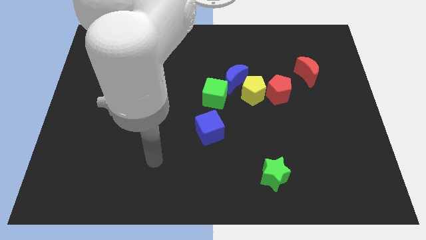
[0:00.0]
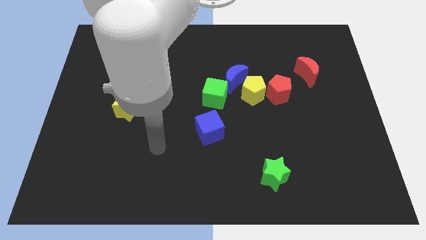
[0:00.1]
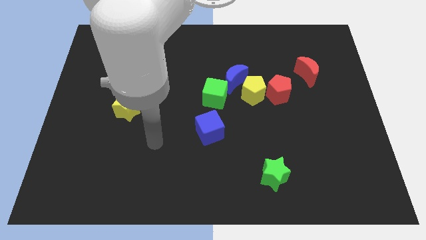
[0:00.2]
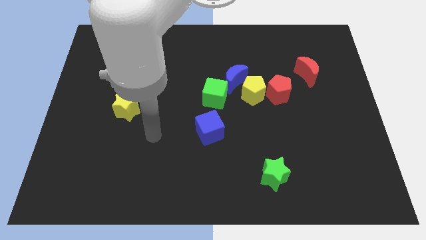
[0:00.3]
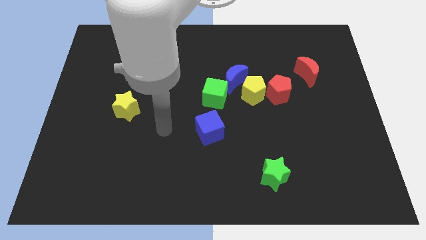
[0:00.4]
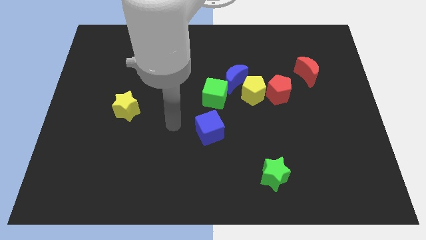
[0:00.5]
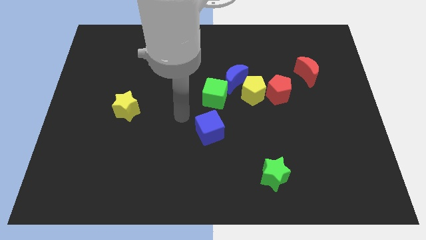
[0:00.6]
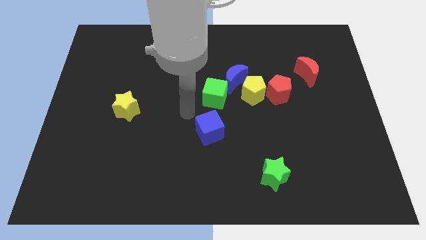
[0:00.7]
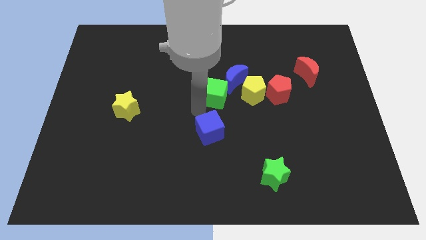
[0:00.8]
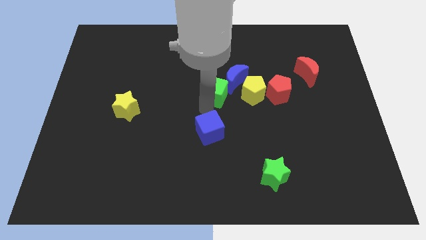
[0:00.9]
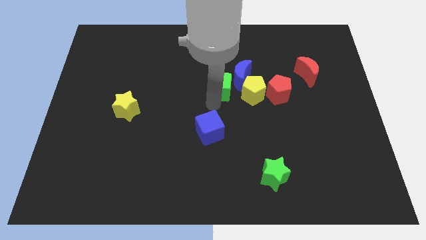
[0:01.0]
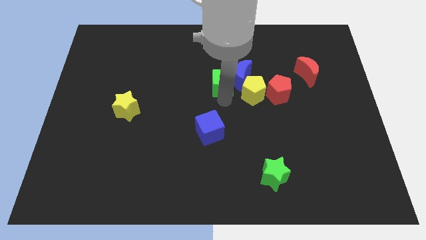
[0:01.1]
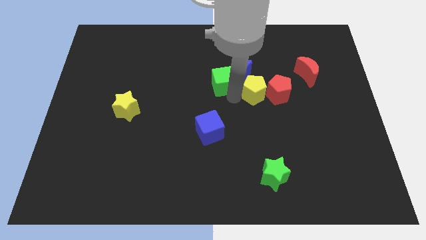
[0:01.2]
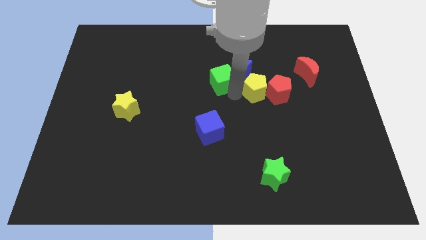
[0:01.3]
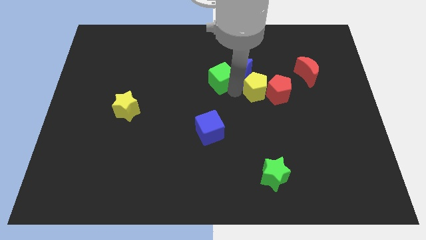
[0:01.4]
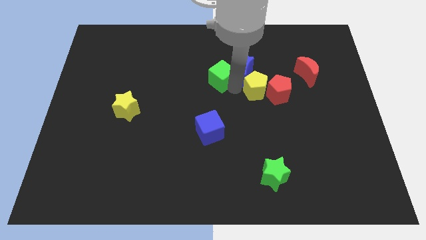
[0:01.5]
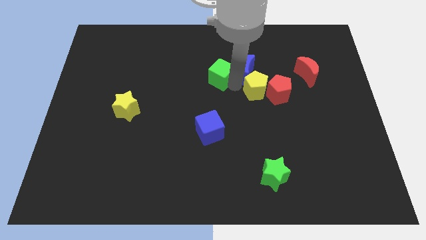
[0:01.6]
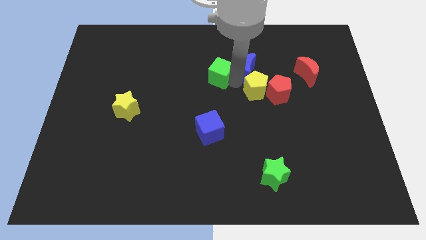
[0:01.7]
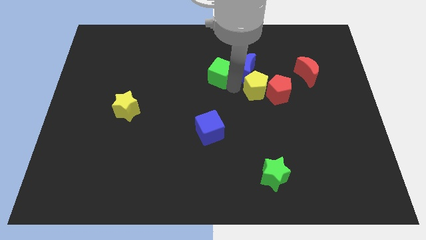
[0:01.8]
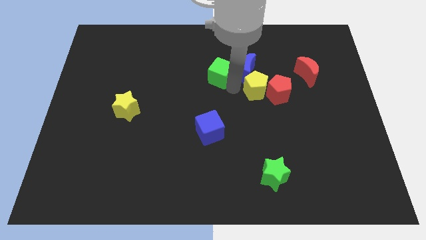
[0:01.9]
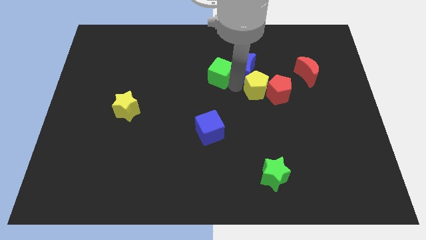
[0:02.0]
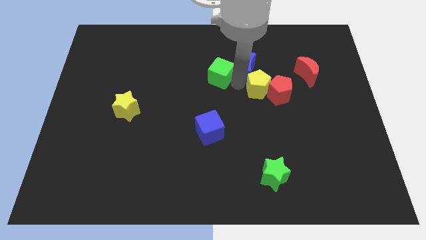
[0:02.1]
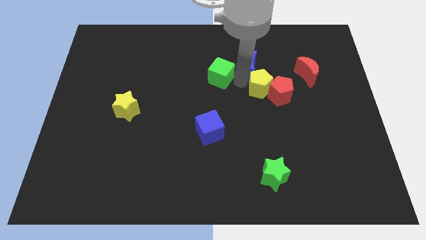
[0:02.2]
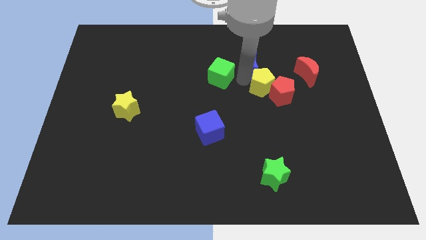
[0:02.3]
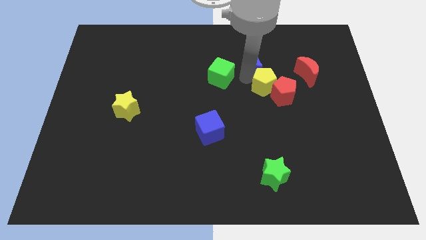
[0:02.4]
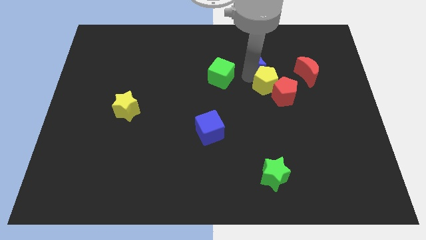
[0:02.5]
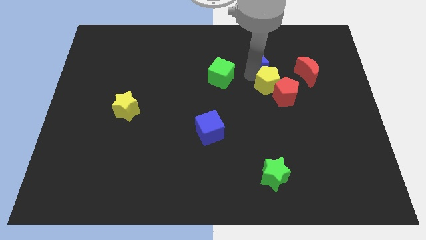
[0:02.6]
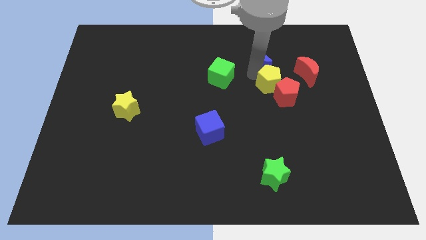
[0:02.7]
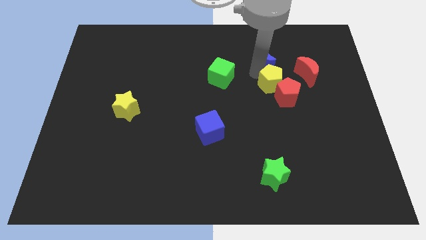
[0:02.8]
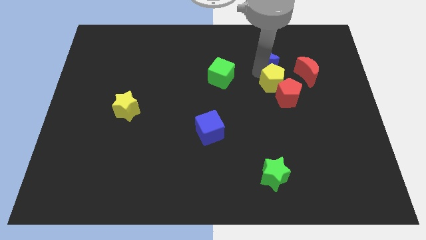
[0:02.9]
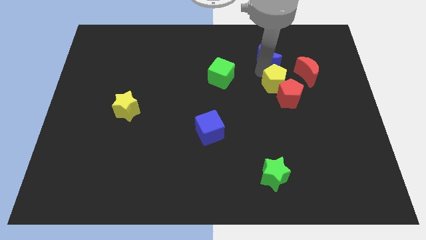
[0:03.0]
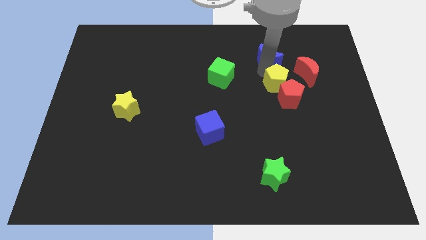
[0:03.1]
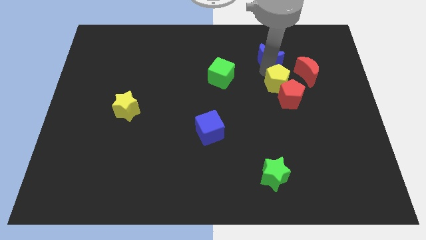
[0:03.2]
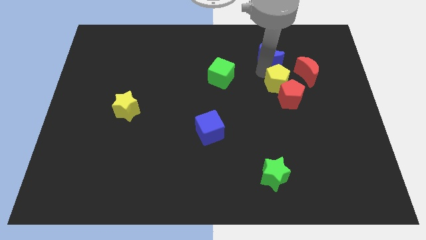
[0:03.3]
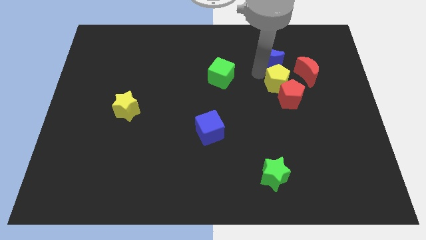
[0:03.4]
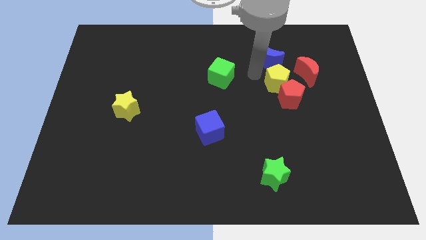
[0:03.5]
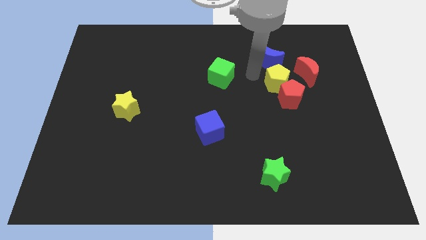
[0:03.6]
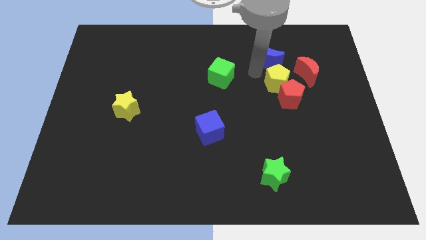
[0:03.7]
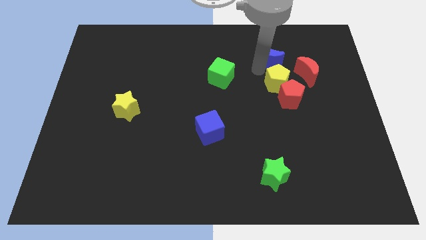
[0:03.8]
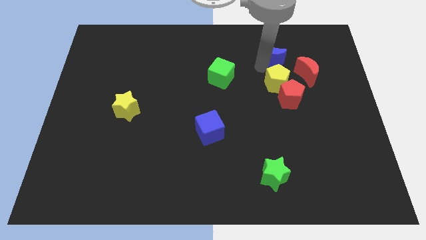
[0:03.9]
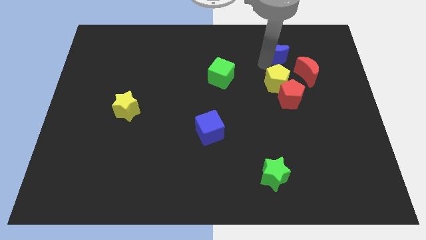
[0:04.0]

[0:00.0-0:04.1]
move the blue moon away from the yellow pentagon and green cube

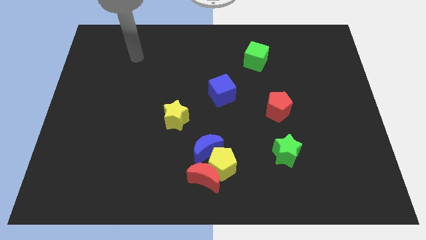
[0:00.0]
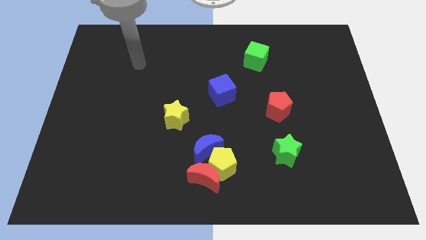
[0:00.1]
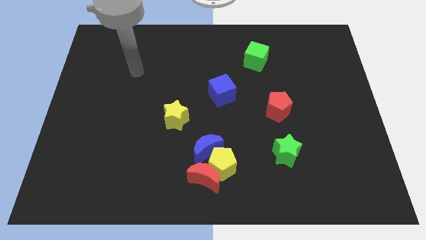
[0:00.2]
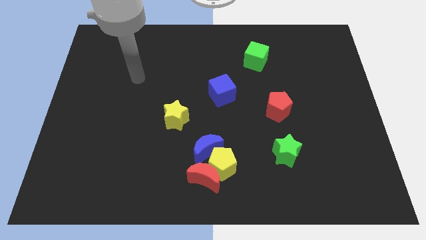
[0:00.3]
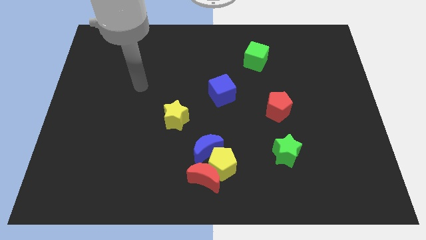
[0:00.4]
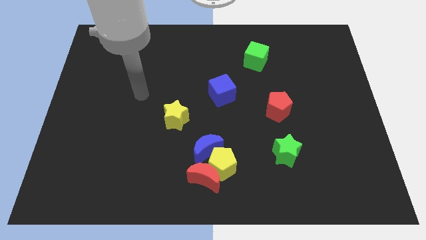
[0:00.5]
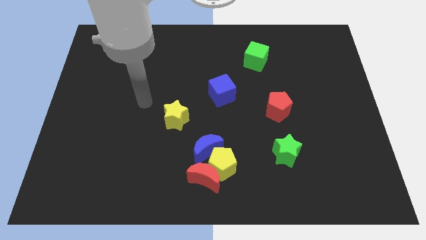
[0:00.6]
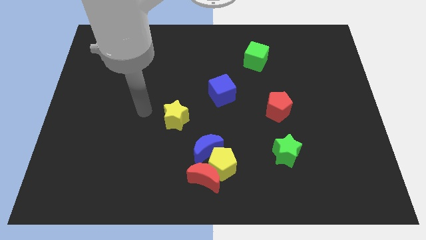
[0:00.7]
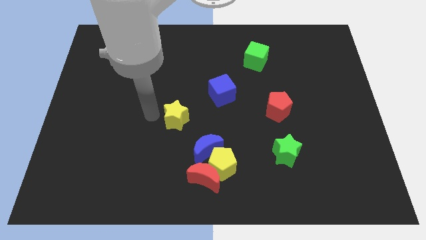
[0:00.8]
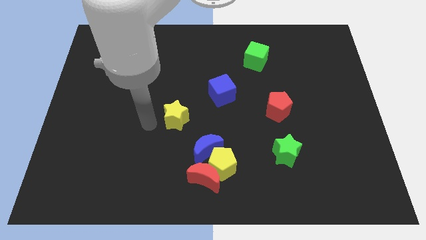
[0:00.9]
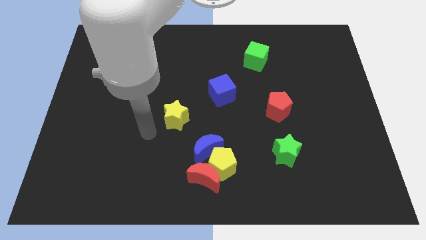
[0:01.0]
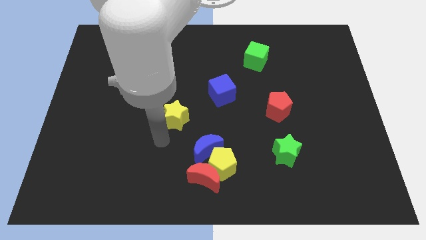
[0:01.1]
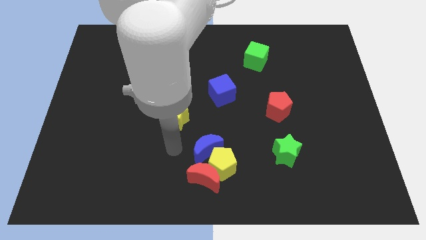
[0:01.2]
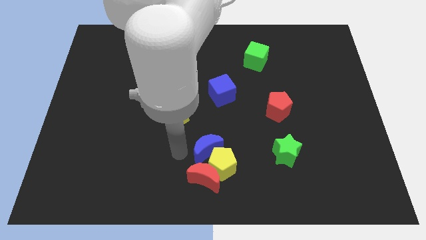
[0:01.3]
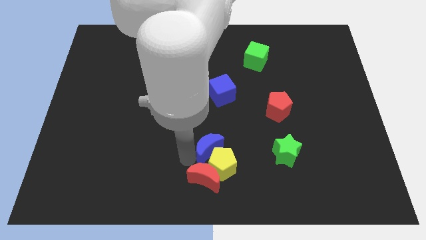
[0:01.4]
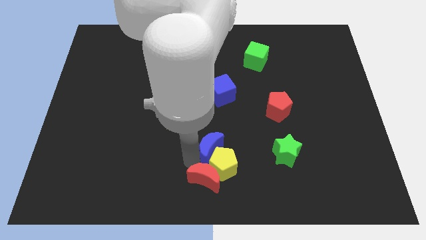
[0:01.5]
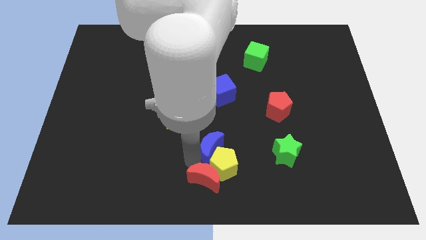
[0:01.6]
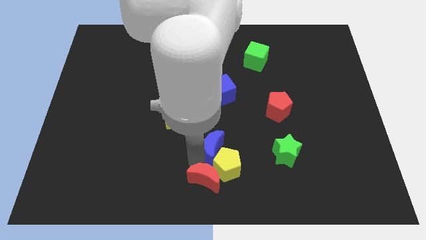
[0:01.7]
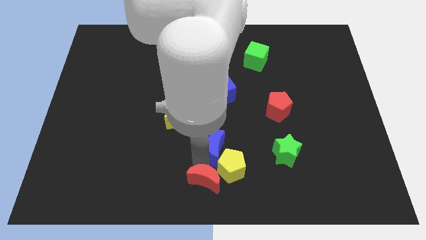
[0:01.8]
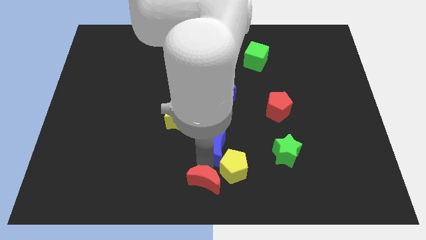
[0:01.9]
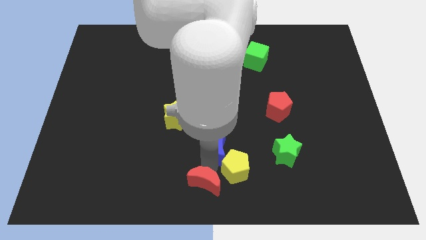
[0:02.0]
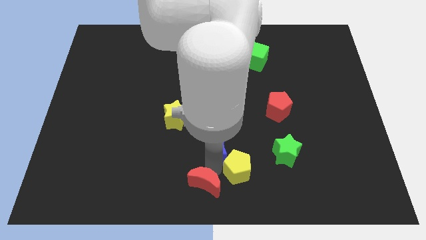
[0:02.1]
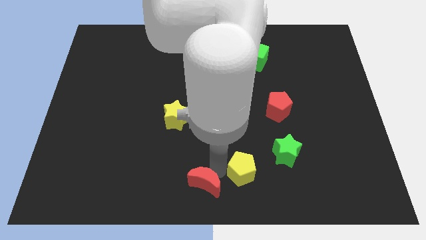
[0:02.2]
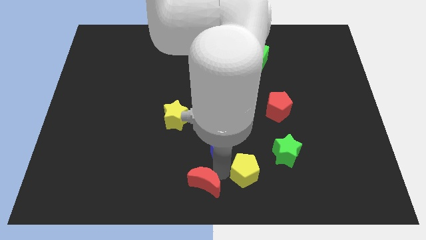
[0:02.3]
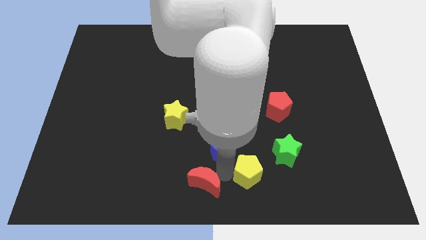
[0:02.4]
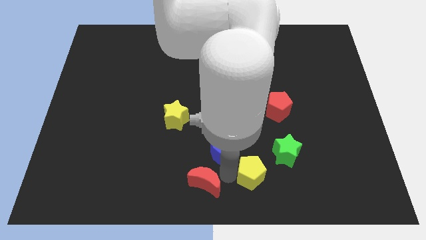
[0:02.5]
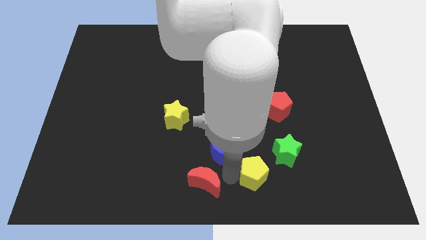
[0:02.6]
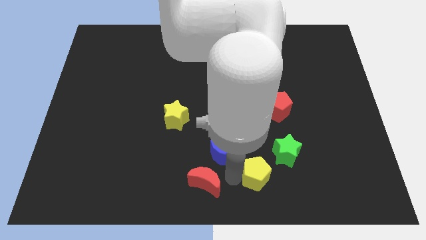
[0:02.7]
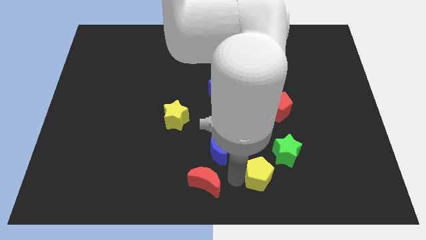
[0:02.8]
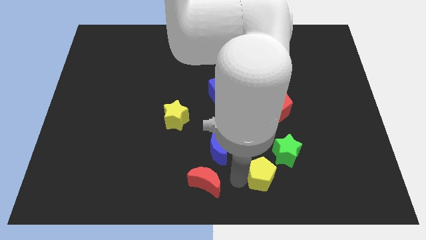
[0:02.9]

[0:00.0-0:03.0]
pull the yellow pentagon apart from the red moon and blue moon

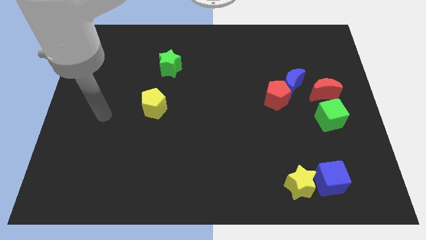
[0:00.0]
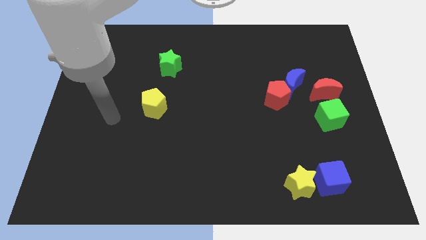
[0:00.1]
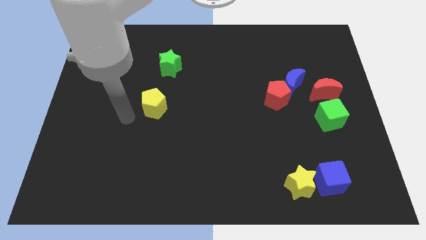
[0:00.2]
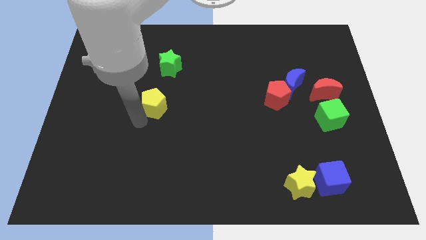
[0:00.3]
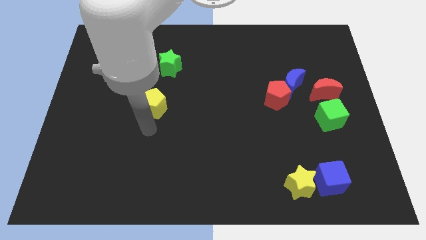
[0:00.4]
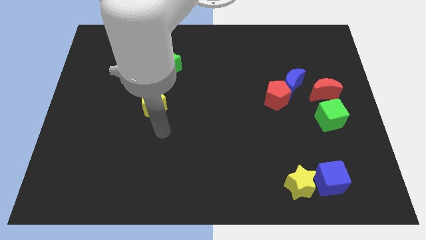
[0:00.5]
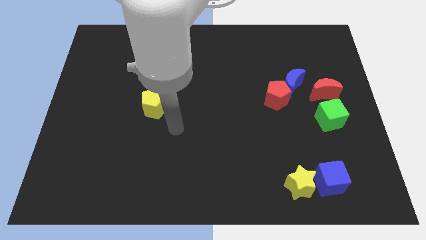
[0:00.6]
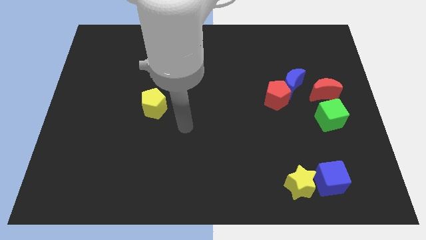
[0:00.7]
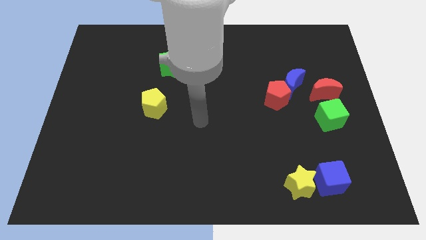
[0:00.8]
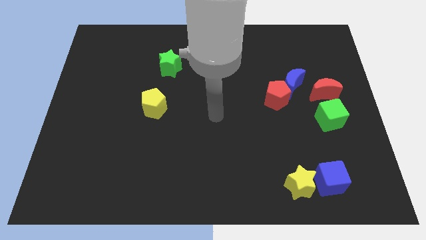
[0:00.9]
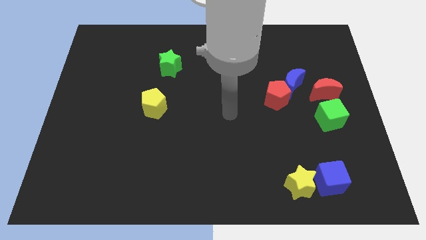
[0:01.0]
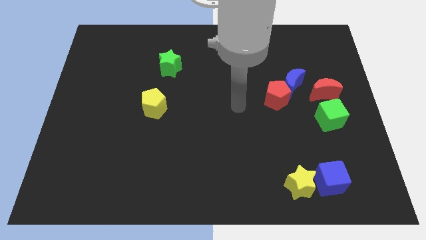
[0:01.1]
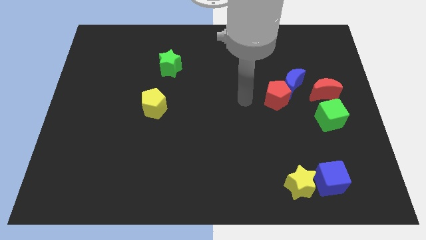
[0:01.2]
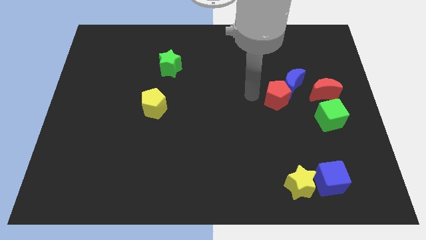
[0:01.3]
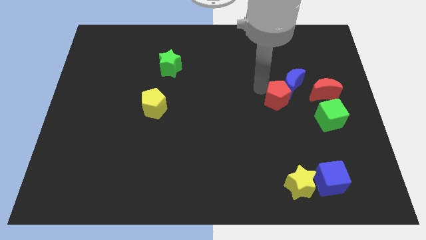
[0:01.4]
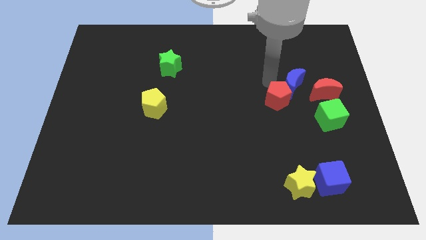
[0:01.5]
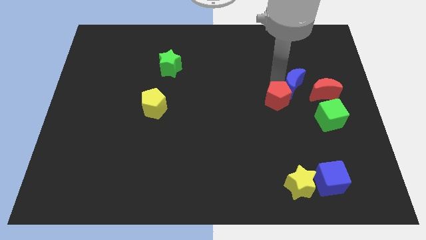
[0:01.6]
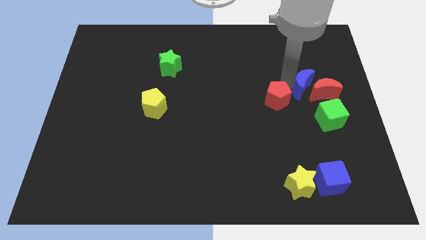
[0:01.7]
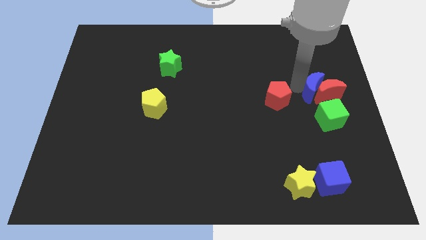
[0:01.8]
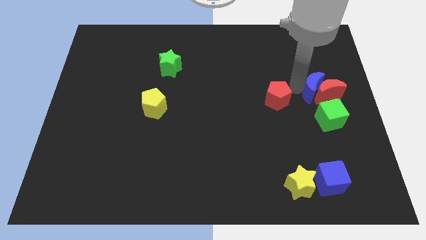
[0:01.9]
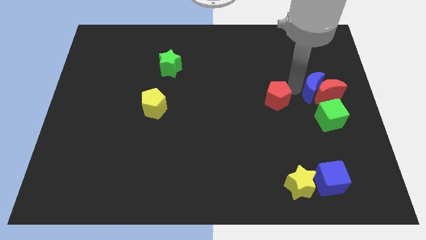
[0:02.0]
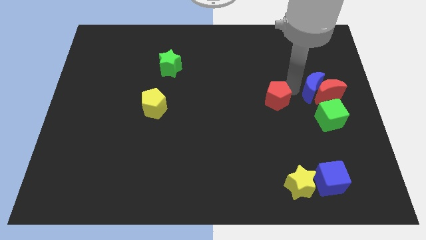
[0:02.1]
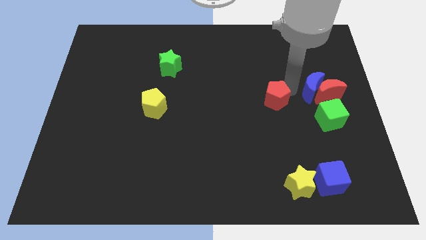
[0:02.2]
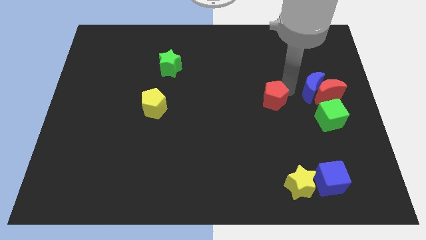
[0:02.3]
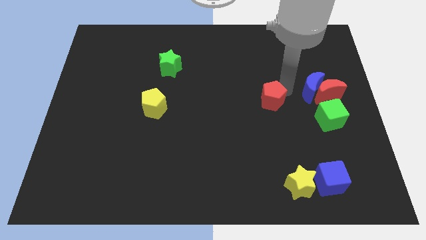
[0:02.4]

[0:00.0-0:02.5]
separate the red pentagon from the blue moon
